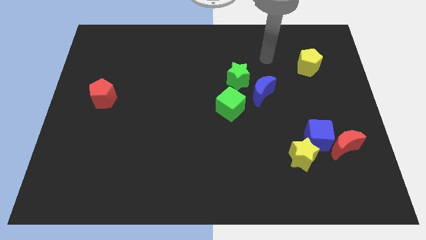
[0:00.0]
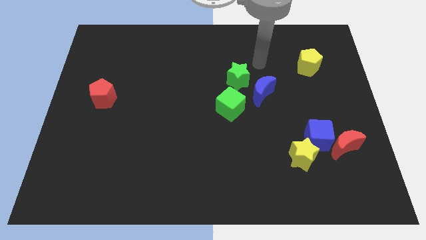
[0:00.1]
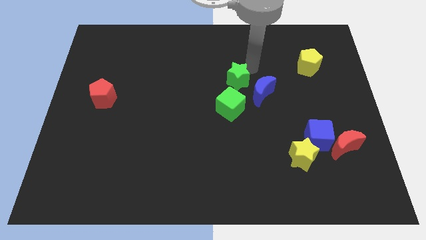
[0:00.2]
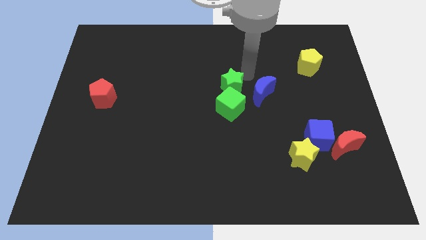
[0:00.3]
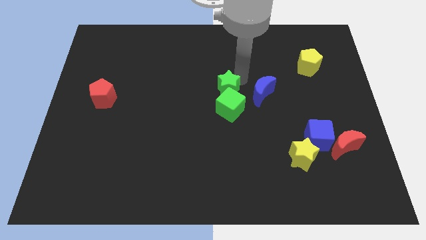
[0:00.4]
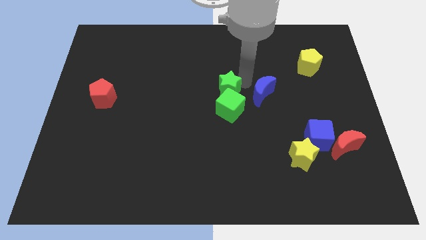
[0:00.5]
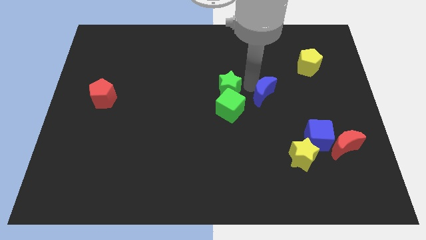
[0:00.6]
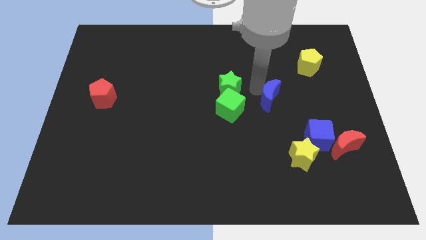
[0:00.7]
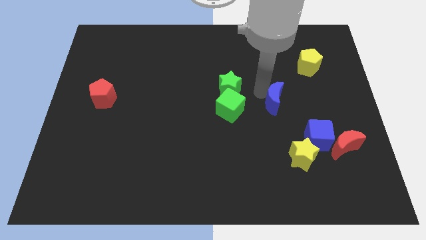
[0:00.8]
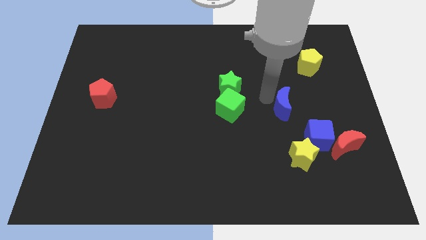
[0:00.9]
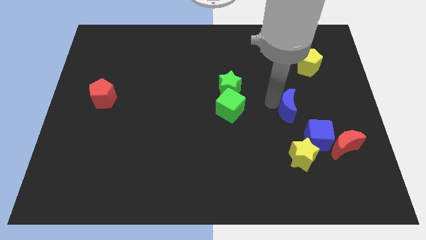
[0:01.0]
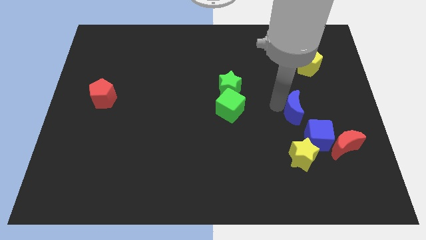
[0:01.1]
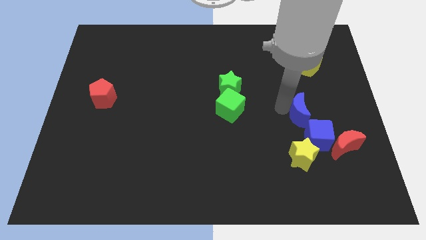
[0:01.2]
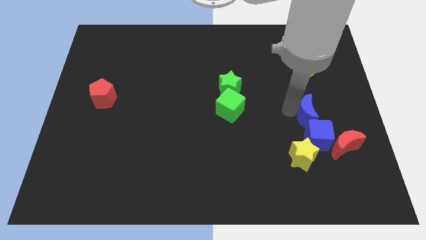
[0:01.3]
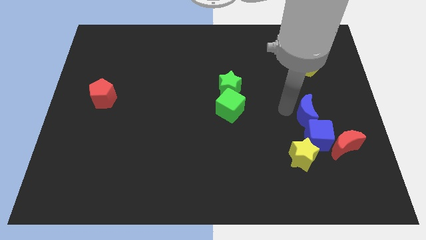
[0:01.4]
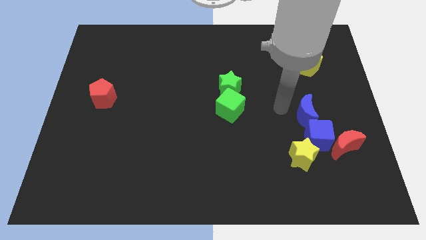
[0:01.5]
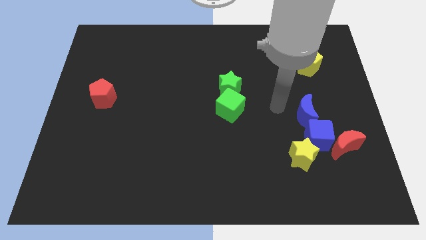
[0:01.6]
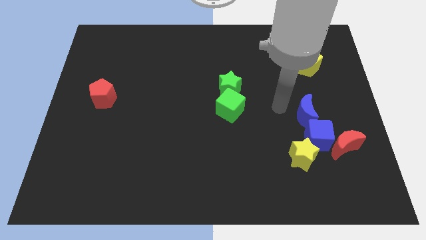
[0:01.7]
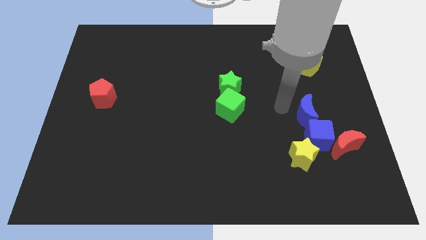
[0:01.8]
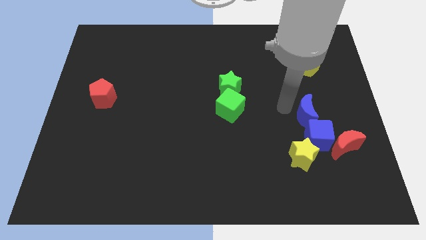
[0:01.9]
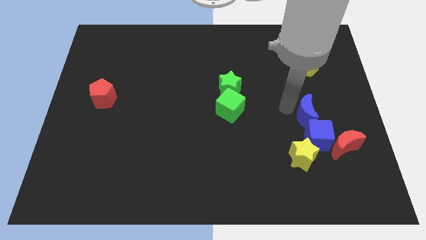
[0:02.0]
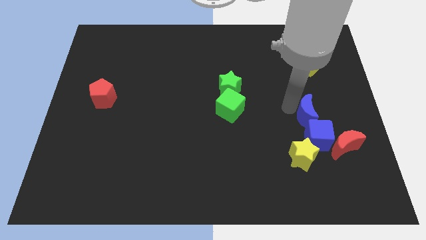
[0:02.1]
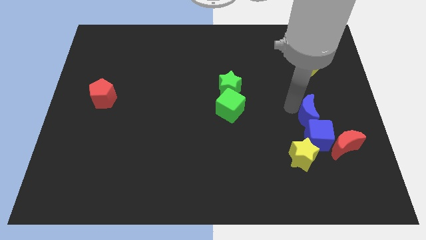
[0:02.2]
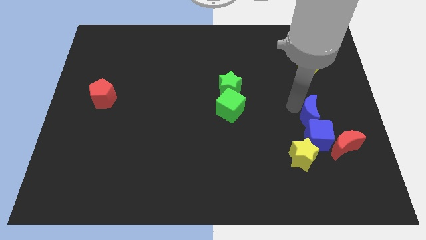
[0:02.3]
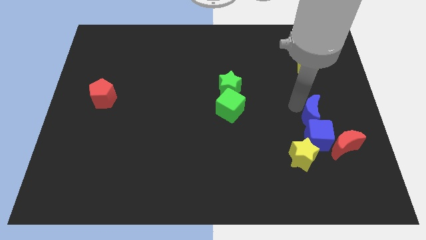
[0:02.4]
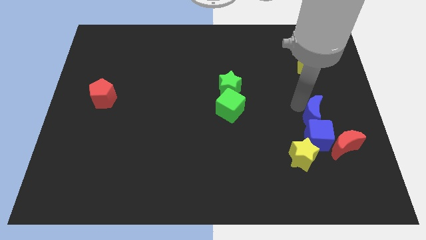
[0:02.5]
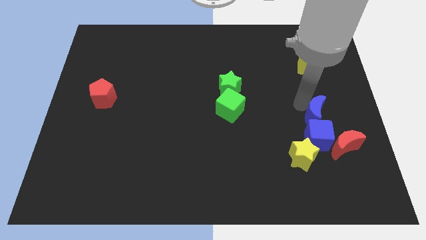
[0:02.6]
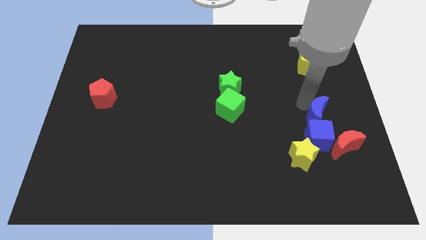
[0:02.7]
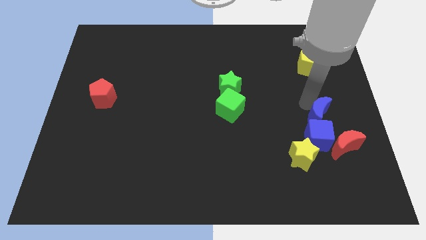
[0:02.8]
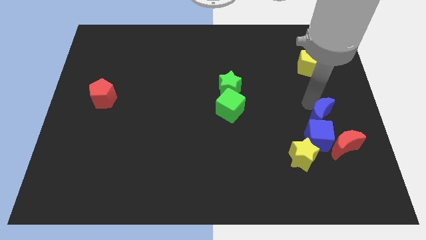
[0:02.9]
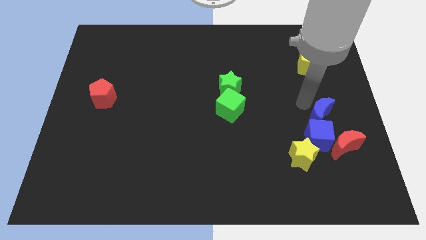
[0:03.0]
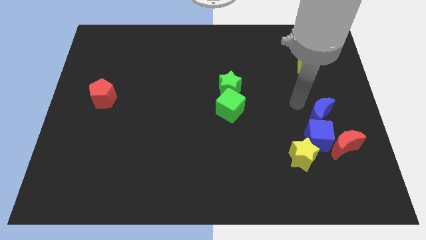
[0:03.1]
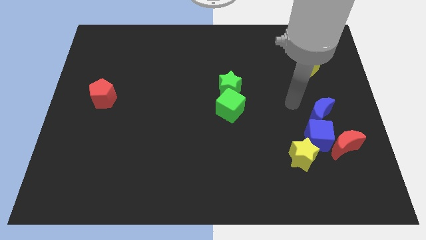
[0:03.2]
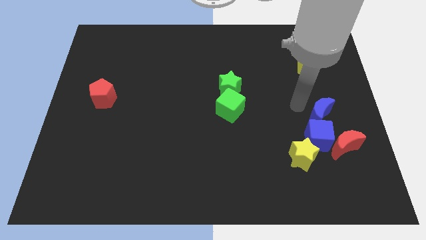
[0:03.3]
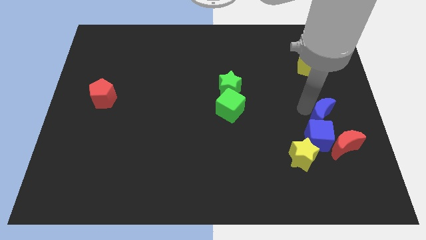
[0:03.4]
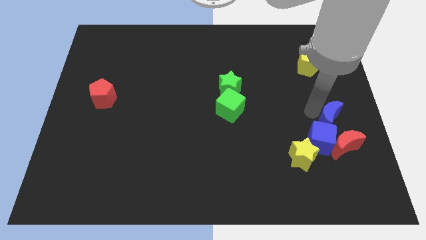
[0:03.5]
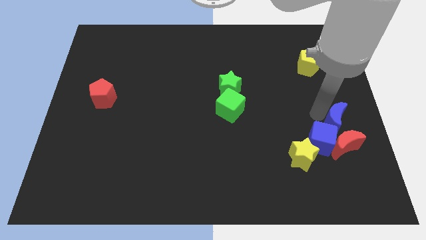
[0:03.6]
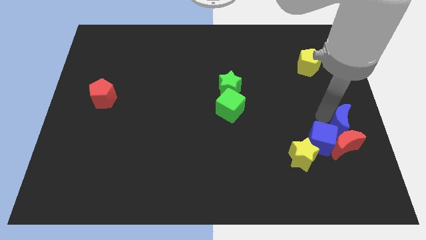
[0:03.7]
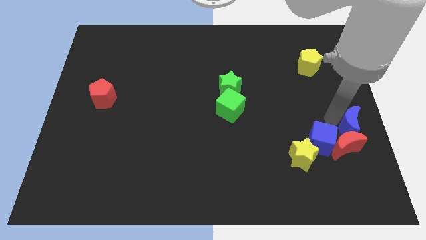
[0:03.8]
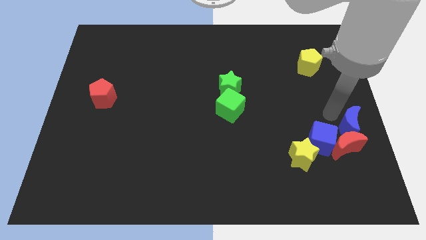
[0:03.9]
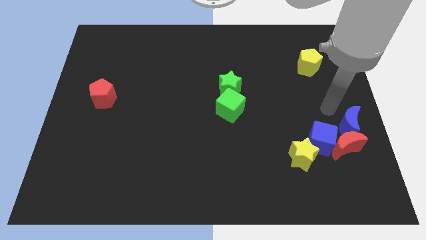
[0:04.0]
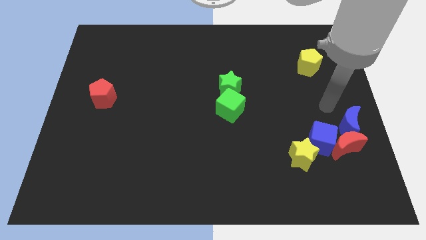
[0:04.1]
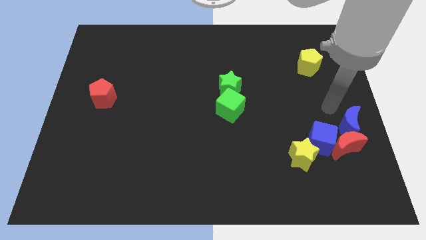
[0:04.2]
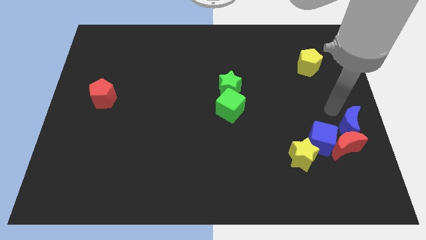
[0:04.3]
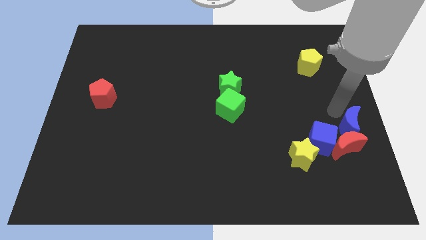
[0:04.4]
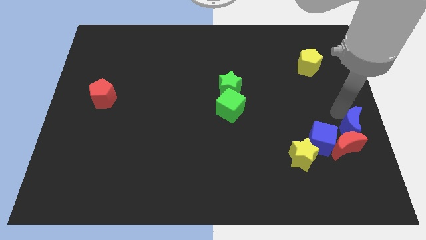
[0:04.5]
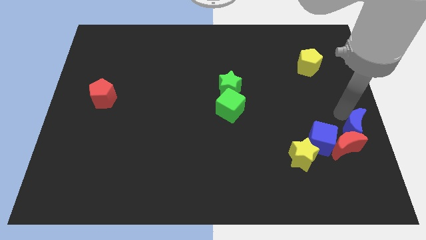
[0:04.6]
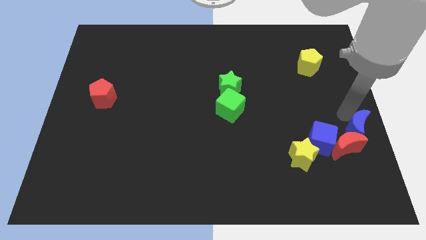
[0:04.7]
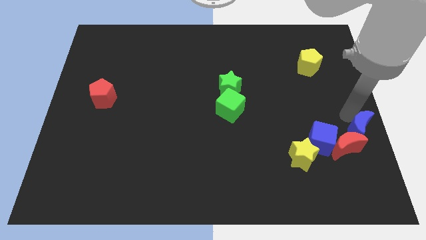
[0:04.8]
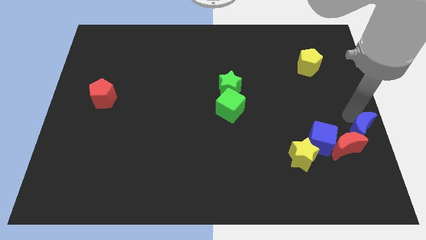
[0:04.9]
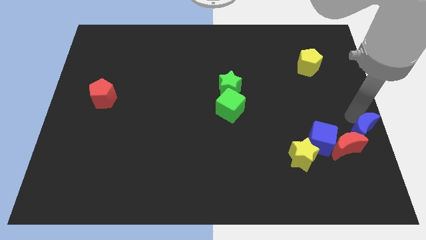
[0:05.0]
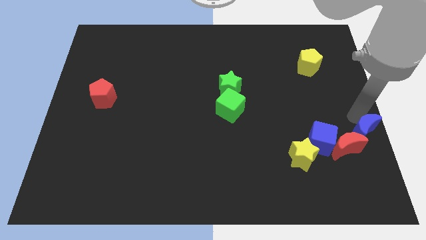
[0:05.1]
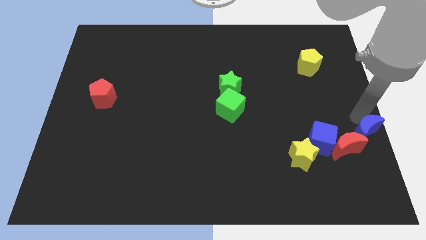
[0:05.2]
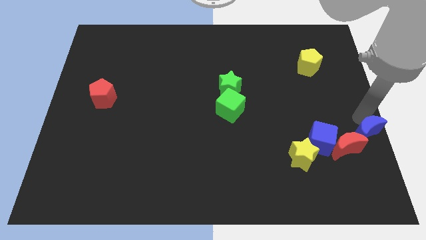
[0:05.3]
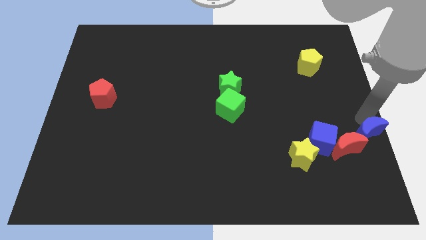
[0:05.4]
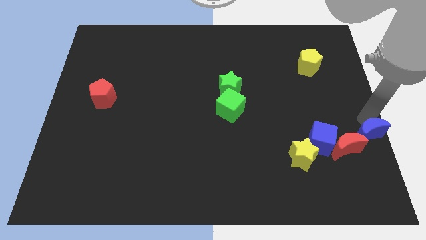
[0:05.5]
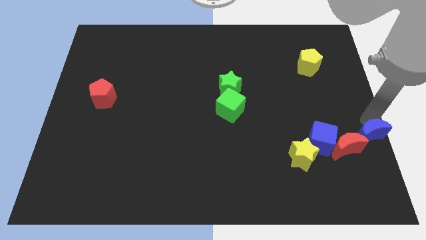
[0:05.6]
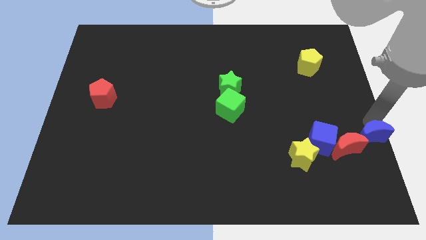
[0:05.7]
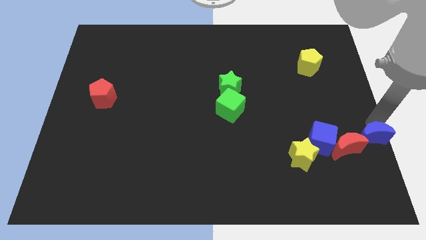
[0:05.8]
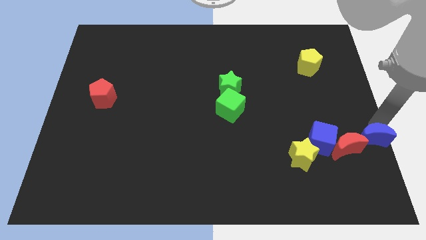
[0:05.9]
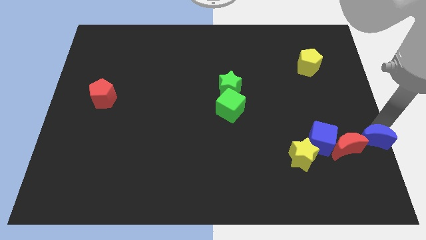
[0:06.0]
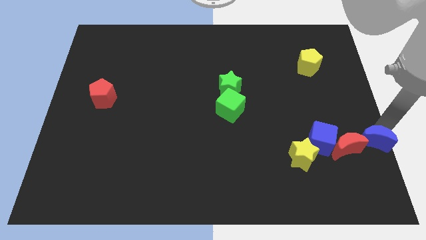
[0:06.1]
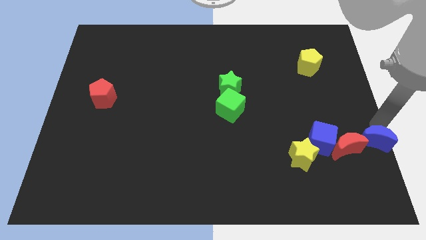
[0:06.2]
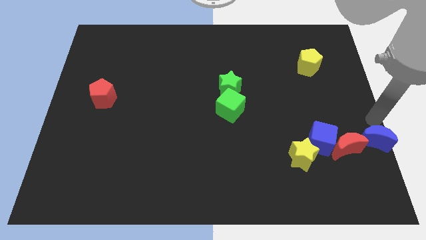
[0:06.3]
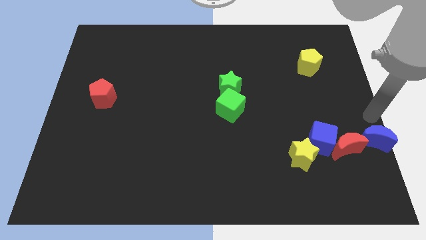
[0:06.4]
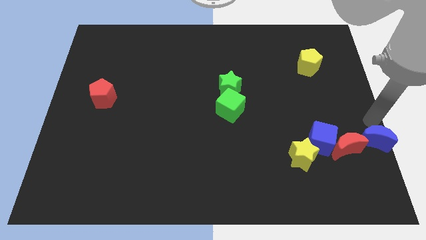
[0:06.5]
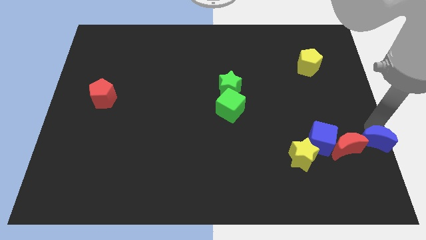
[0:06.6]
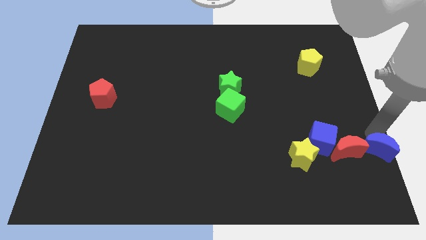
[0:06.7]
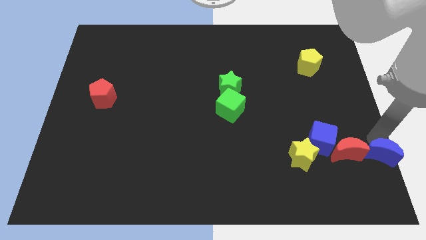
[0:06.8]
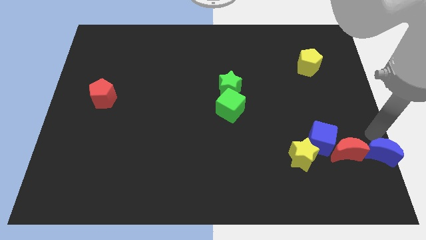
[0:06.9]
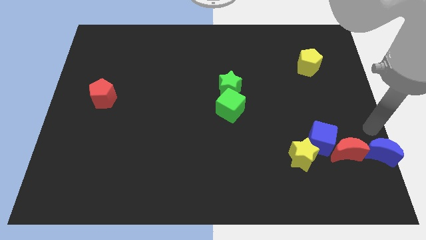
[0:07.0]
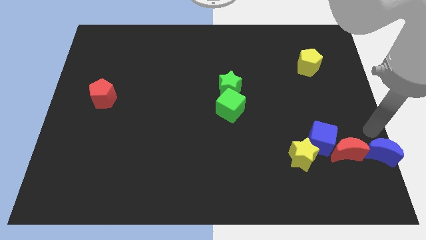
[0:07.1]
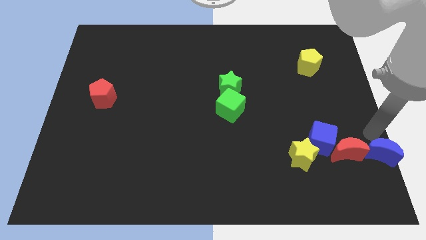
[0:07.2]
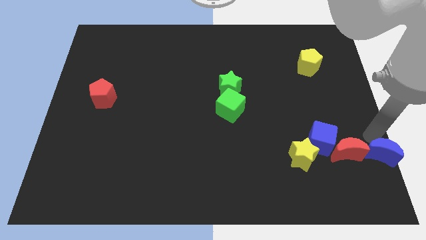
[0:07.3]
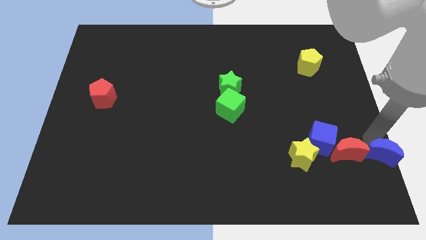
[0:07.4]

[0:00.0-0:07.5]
push the blue moon to the bottom right of the board
